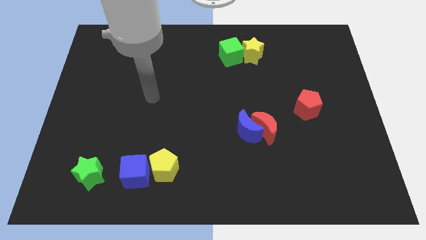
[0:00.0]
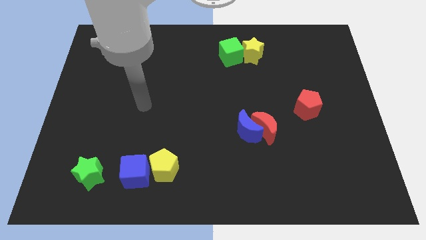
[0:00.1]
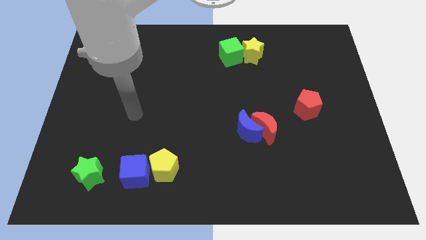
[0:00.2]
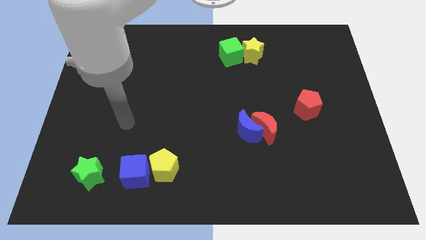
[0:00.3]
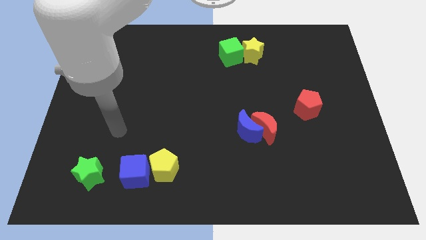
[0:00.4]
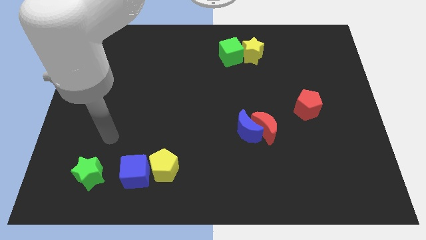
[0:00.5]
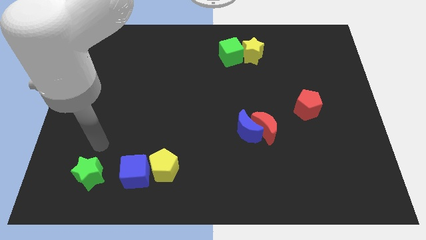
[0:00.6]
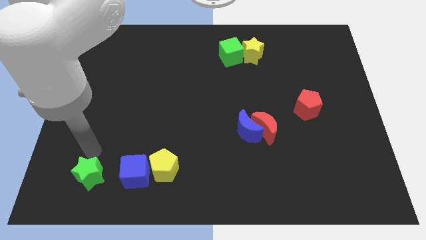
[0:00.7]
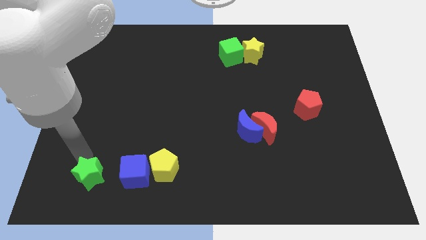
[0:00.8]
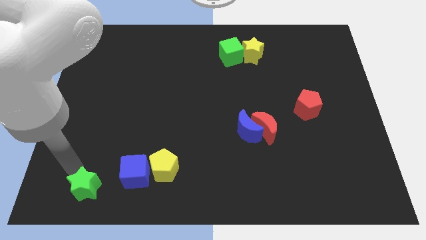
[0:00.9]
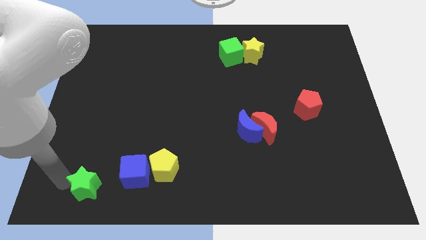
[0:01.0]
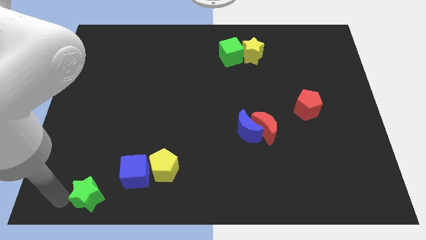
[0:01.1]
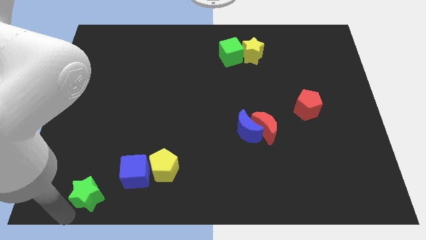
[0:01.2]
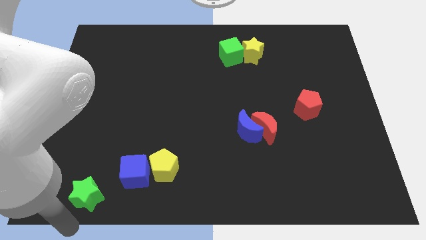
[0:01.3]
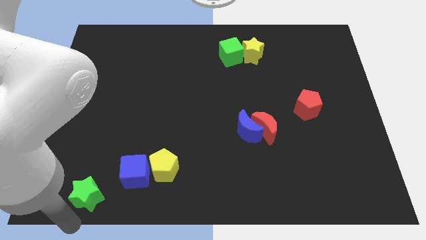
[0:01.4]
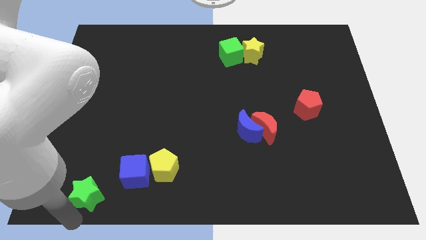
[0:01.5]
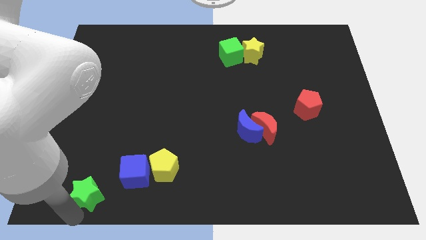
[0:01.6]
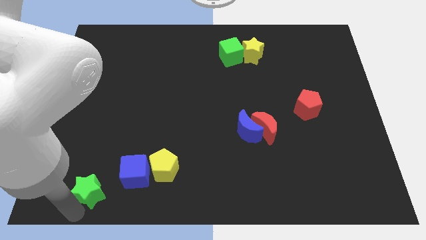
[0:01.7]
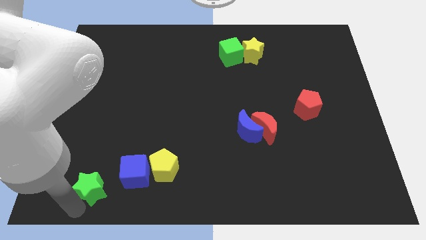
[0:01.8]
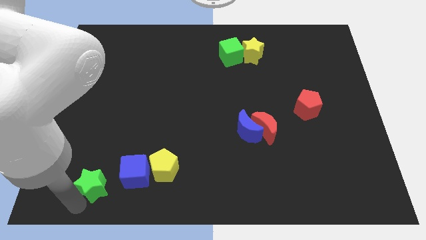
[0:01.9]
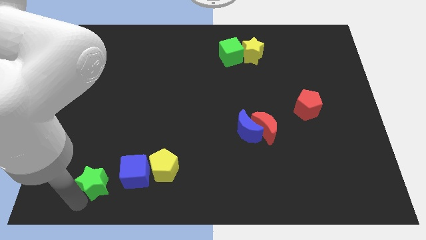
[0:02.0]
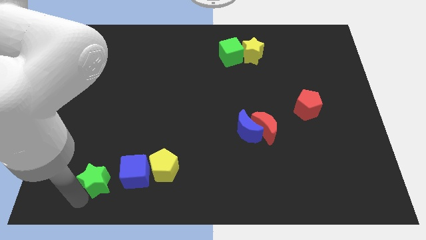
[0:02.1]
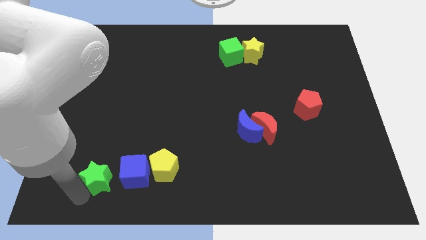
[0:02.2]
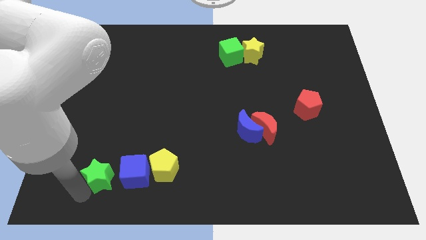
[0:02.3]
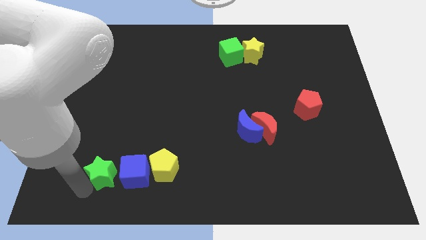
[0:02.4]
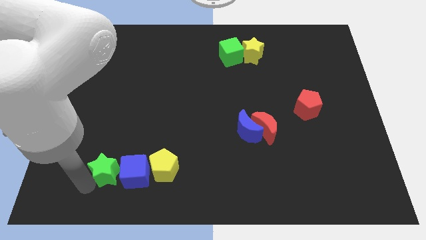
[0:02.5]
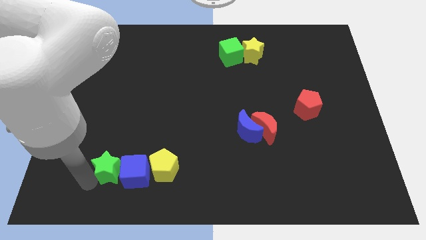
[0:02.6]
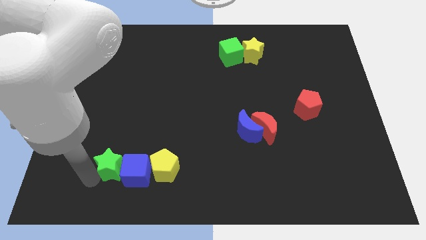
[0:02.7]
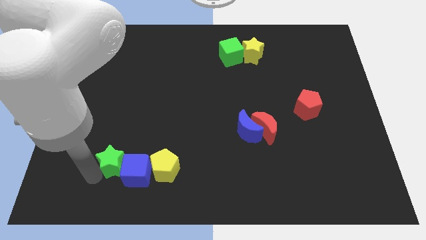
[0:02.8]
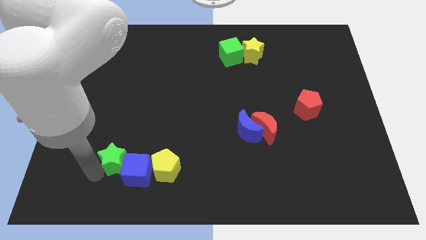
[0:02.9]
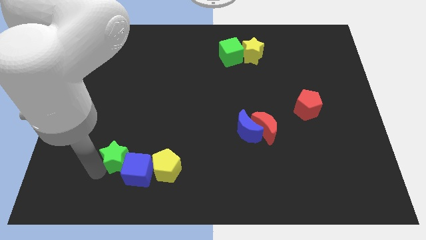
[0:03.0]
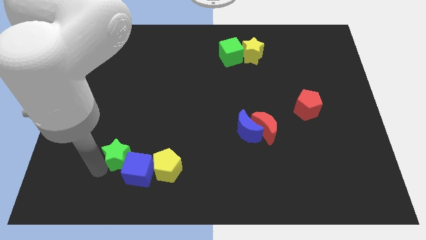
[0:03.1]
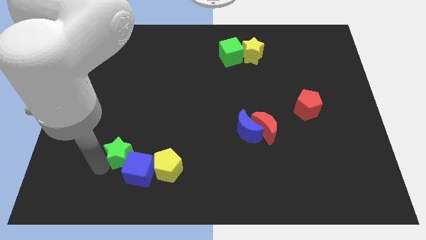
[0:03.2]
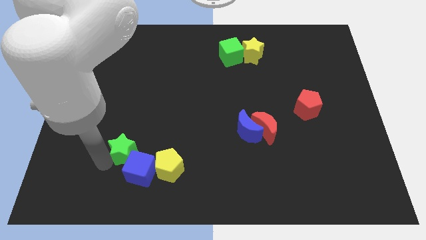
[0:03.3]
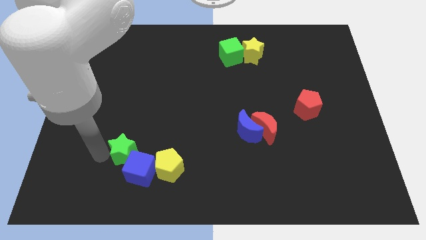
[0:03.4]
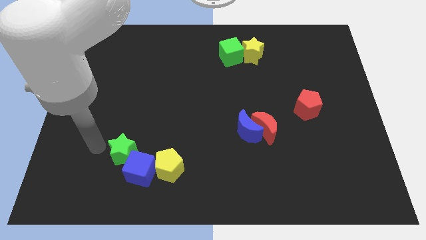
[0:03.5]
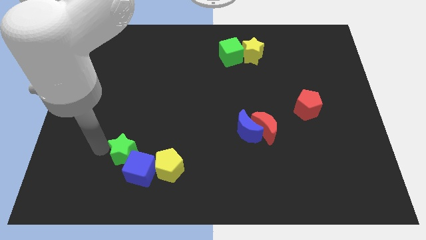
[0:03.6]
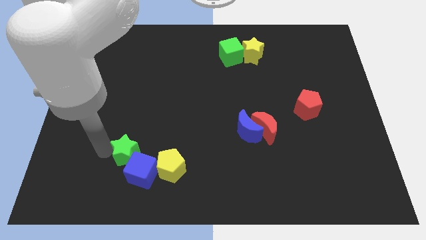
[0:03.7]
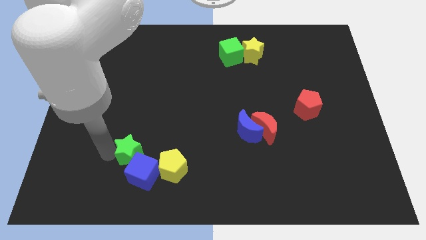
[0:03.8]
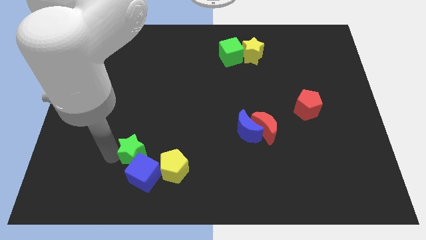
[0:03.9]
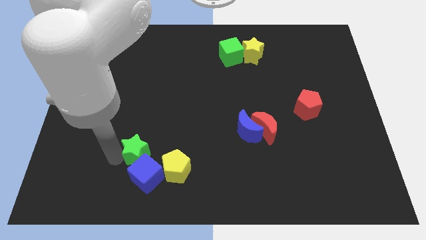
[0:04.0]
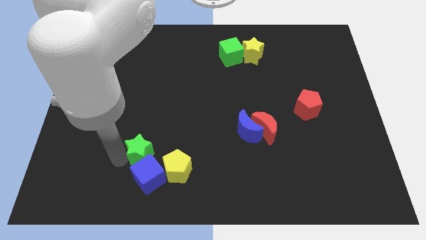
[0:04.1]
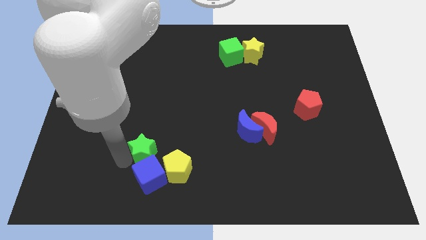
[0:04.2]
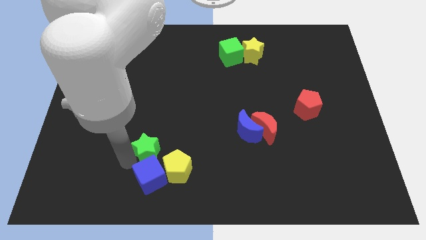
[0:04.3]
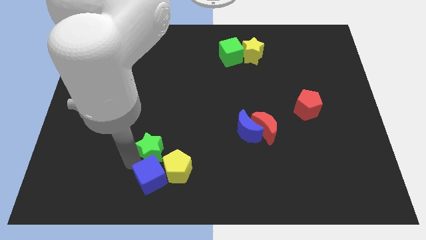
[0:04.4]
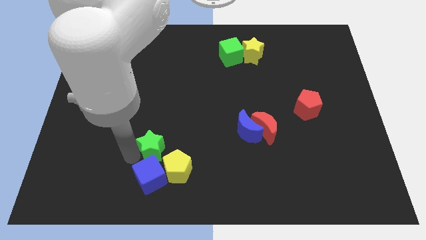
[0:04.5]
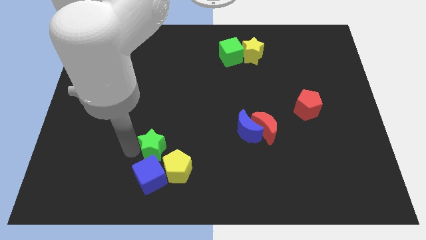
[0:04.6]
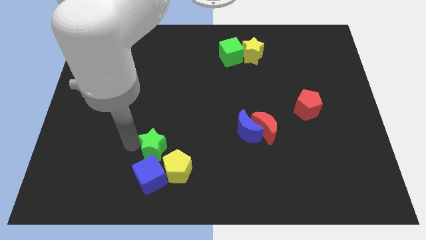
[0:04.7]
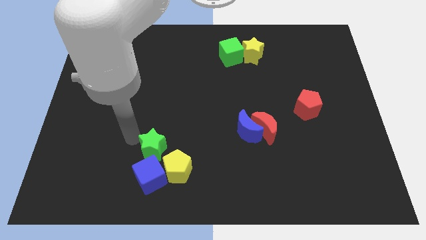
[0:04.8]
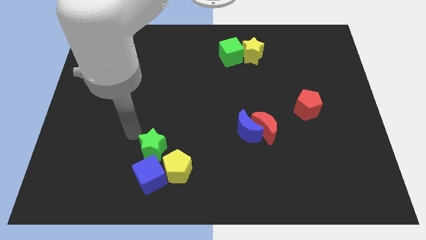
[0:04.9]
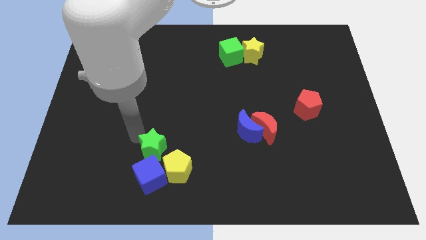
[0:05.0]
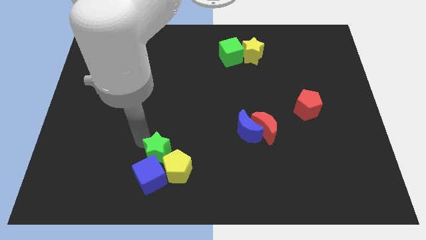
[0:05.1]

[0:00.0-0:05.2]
put the green star to the yellow pentagon

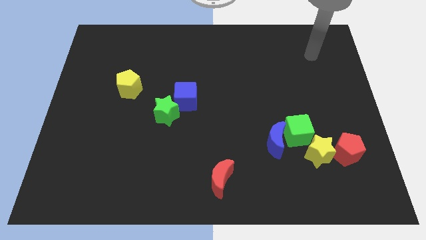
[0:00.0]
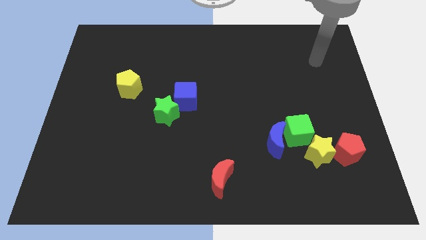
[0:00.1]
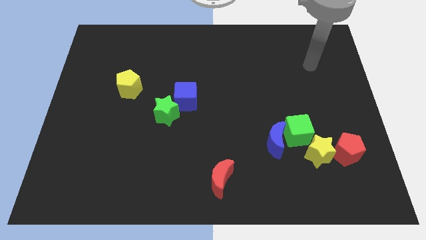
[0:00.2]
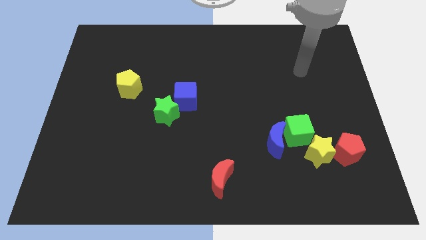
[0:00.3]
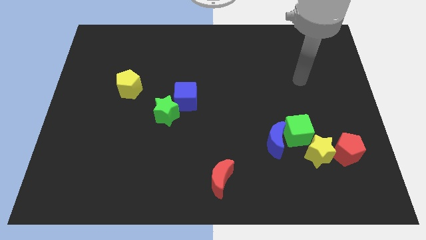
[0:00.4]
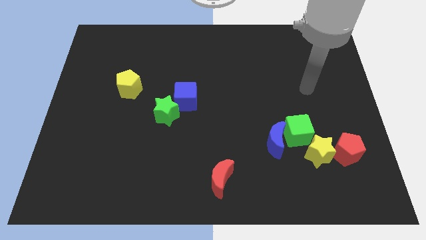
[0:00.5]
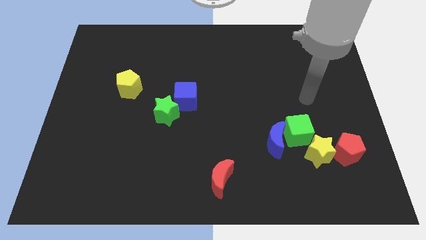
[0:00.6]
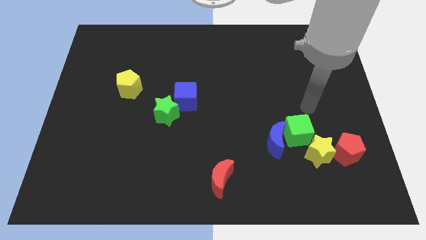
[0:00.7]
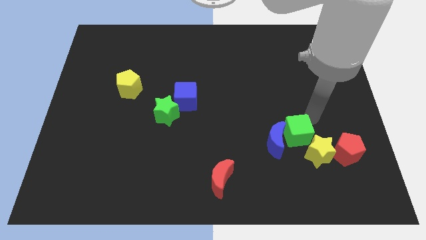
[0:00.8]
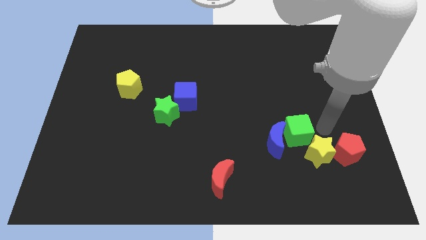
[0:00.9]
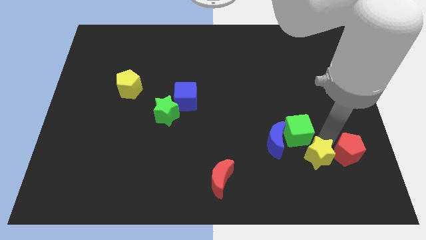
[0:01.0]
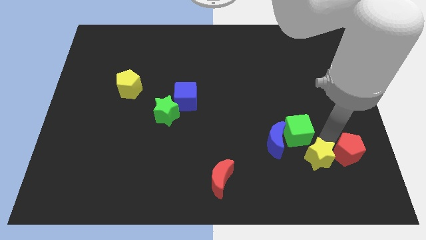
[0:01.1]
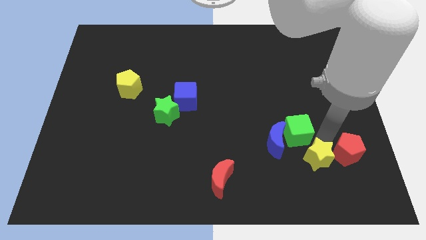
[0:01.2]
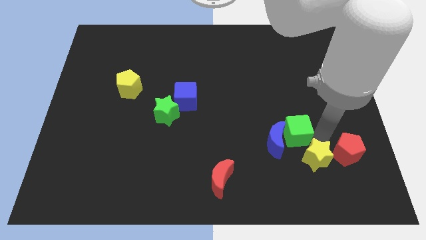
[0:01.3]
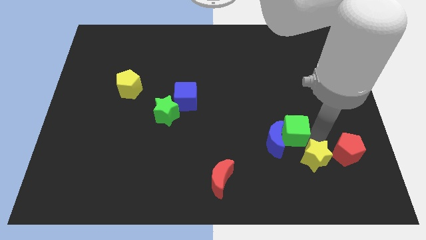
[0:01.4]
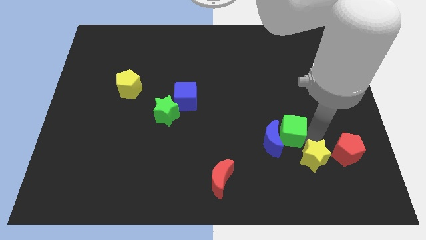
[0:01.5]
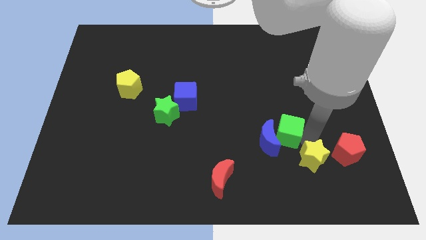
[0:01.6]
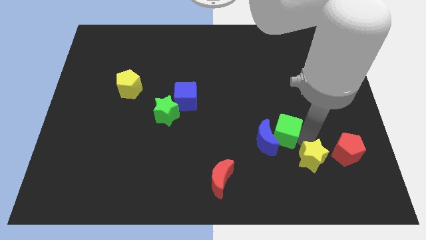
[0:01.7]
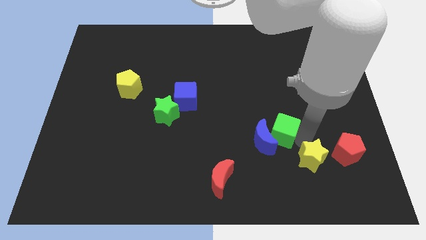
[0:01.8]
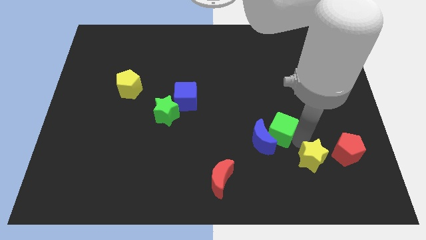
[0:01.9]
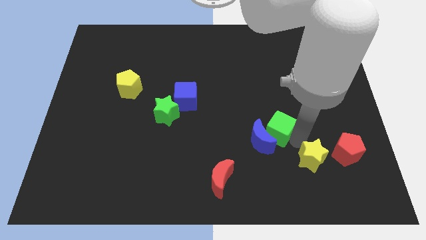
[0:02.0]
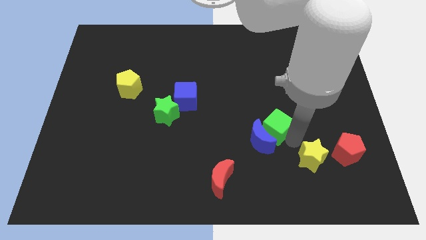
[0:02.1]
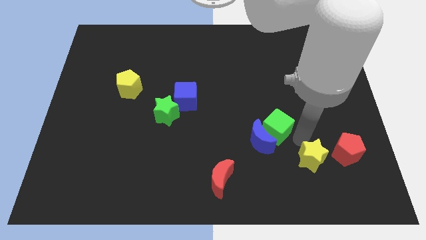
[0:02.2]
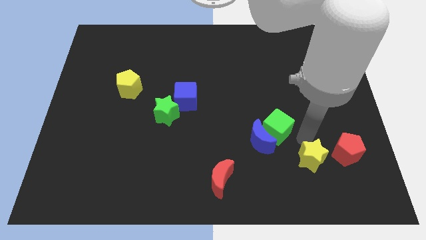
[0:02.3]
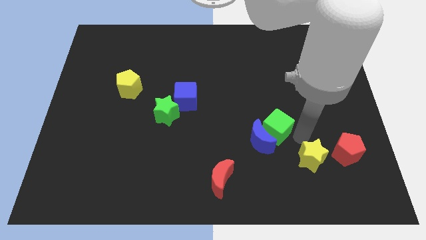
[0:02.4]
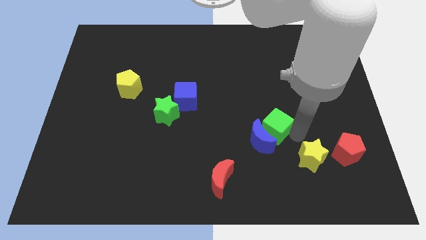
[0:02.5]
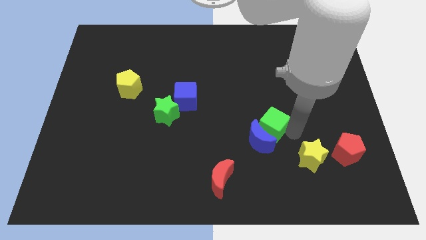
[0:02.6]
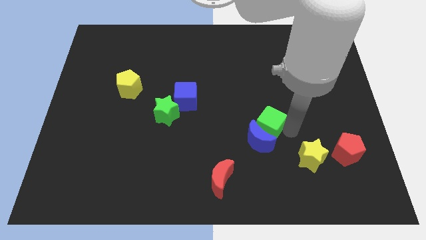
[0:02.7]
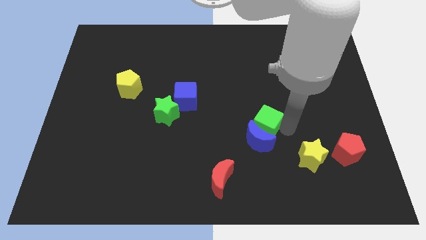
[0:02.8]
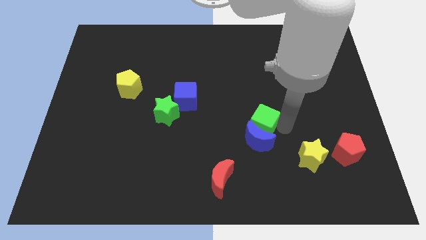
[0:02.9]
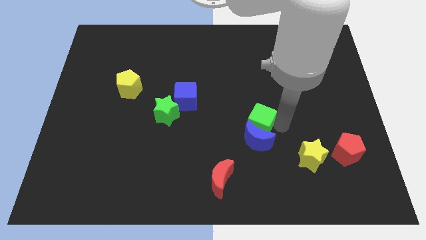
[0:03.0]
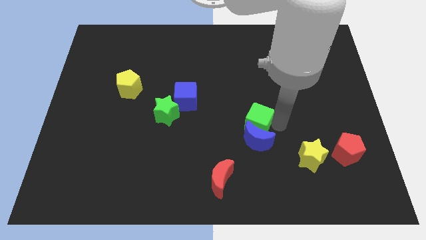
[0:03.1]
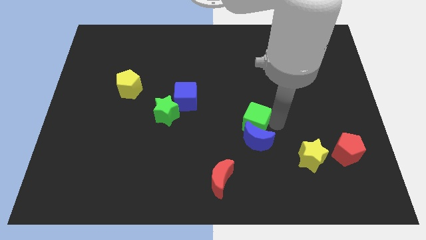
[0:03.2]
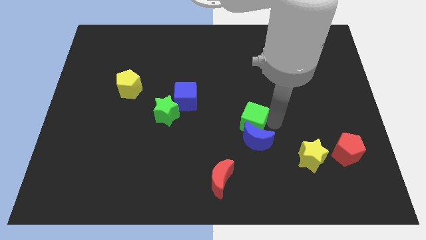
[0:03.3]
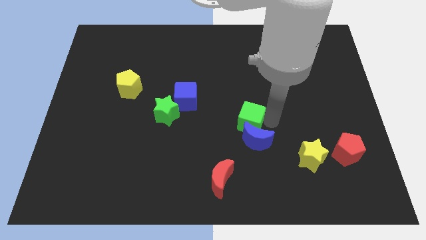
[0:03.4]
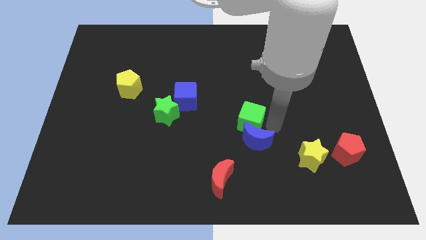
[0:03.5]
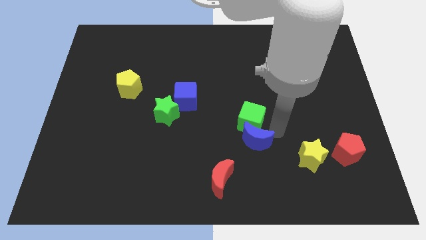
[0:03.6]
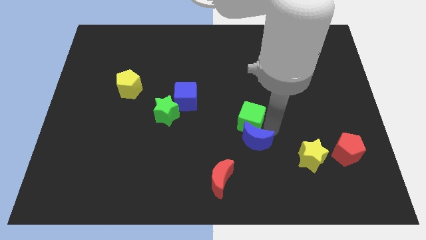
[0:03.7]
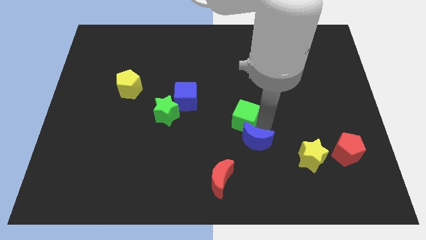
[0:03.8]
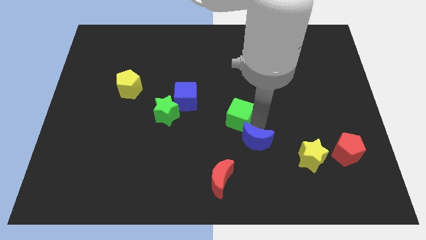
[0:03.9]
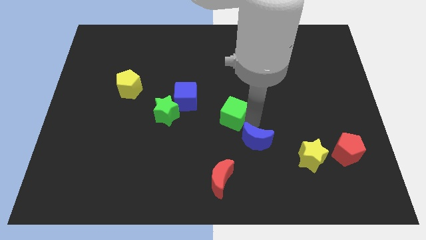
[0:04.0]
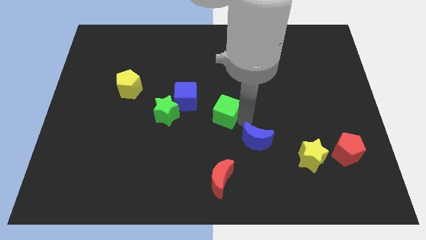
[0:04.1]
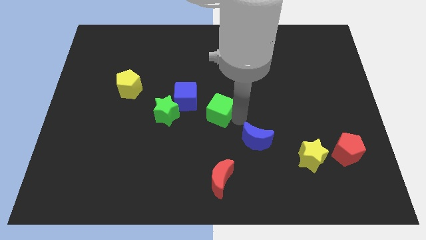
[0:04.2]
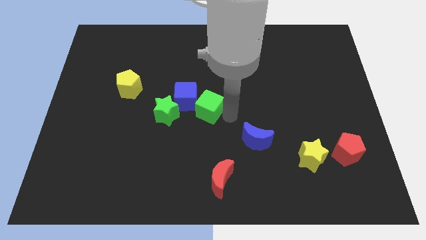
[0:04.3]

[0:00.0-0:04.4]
move the green cube close to the blue cube
